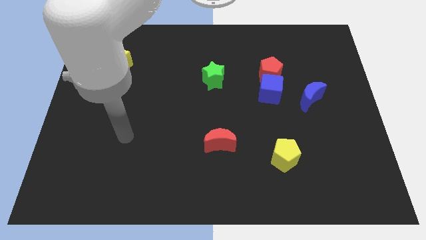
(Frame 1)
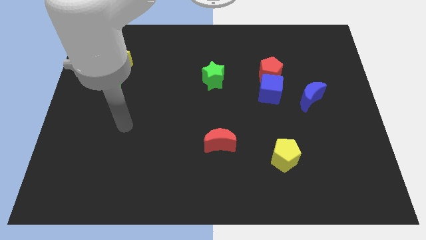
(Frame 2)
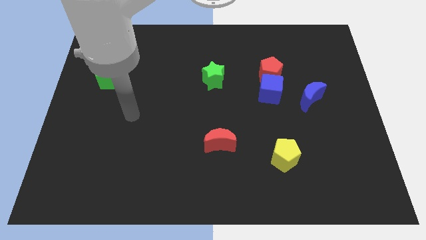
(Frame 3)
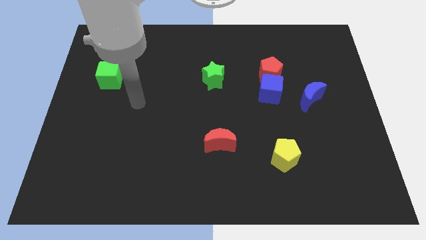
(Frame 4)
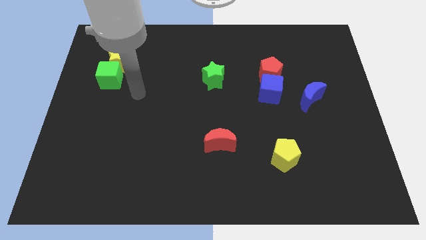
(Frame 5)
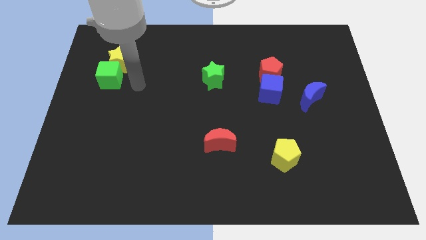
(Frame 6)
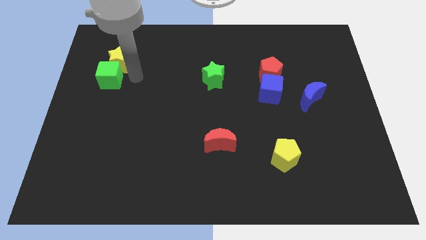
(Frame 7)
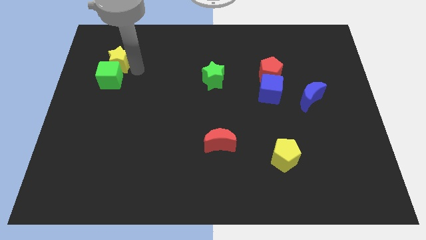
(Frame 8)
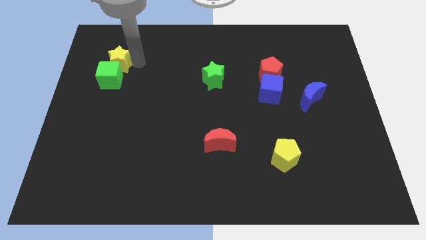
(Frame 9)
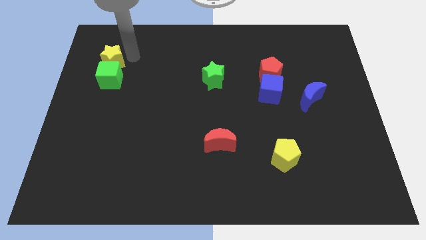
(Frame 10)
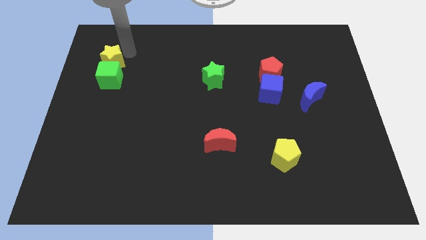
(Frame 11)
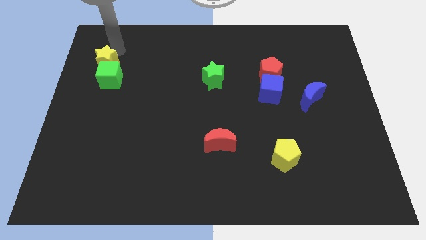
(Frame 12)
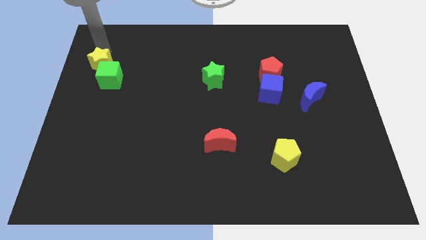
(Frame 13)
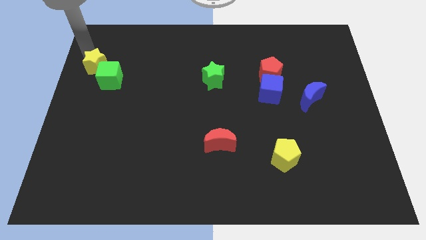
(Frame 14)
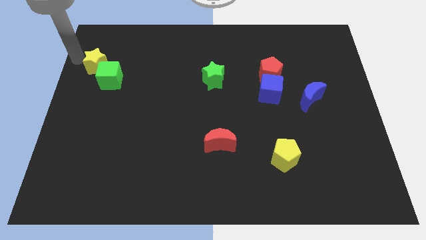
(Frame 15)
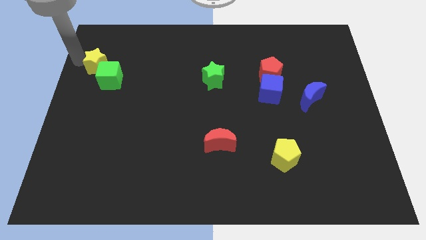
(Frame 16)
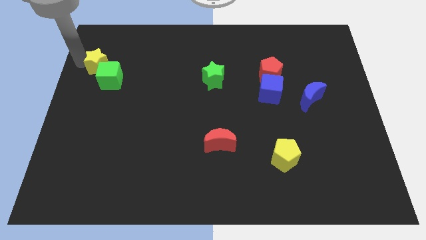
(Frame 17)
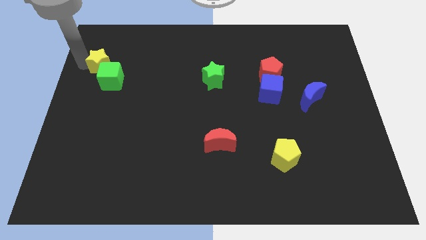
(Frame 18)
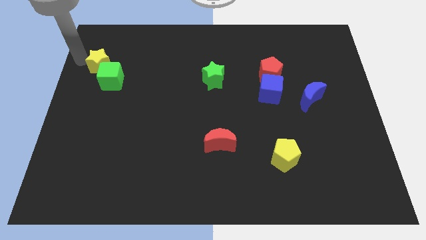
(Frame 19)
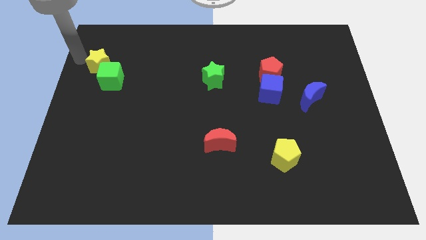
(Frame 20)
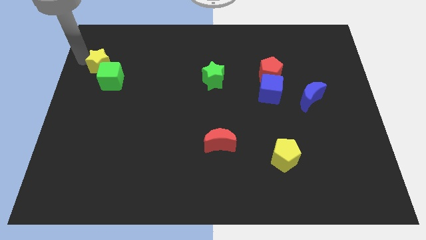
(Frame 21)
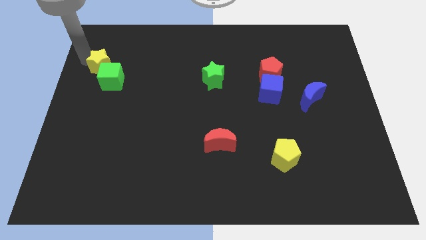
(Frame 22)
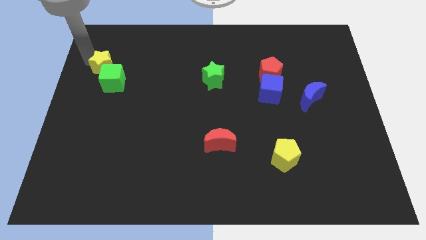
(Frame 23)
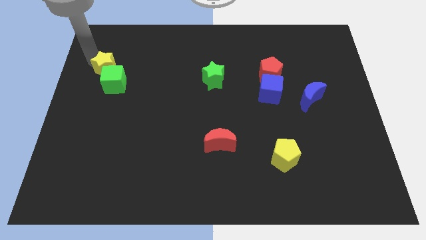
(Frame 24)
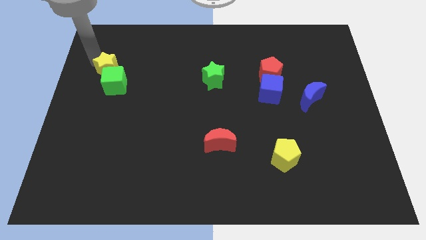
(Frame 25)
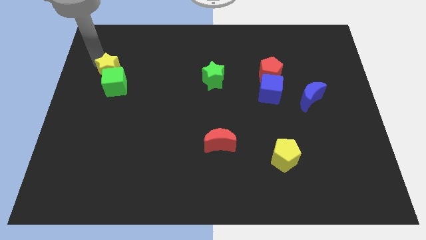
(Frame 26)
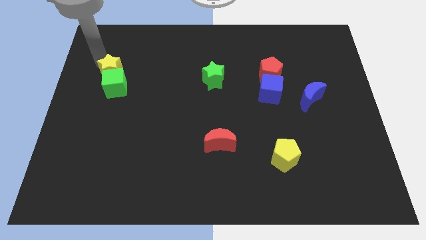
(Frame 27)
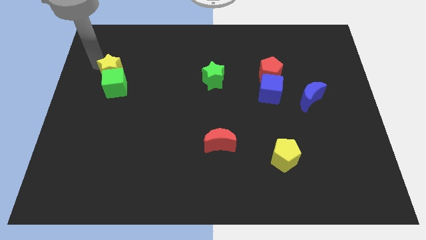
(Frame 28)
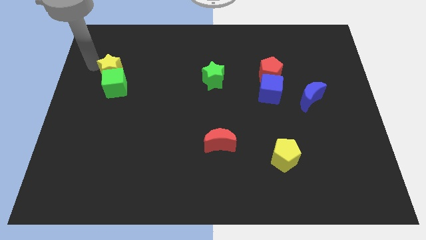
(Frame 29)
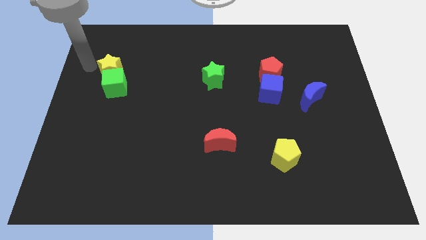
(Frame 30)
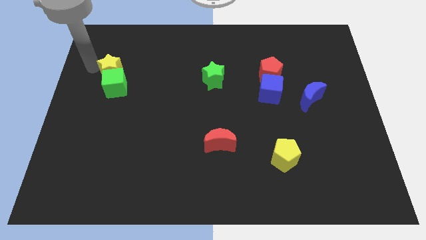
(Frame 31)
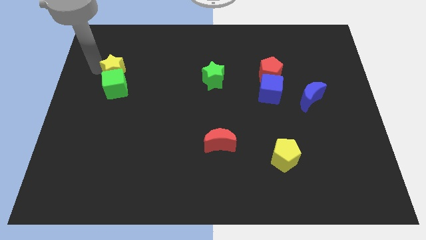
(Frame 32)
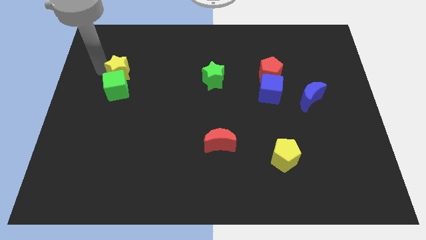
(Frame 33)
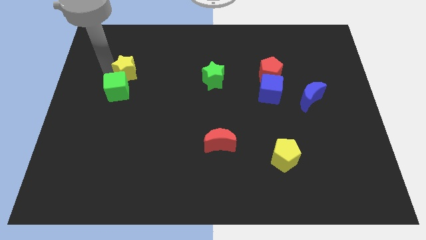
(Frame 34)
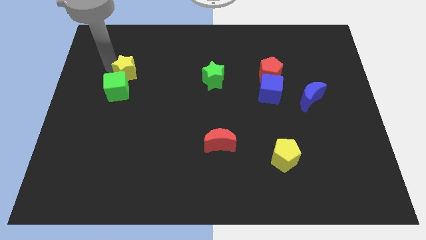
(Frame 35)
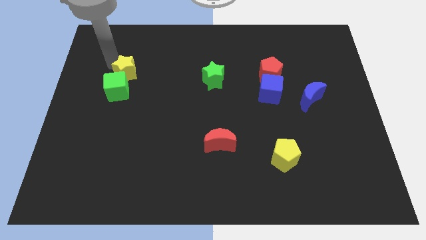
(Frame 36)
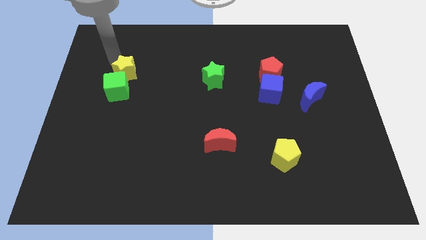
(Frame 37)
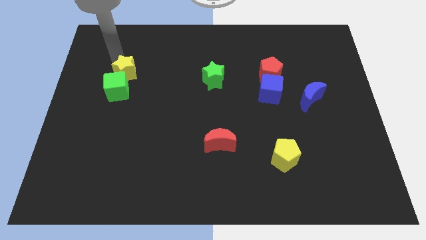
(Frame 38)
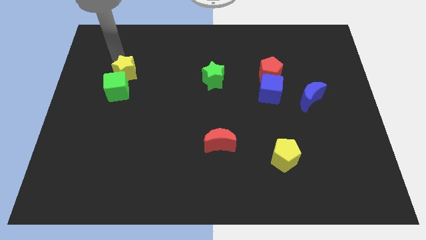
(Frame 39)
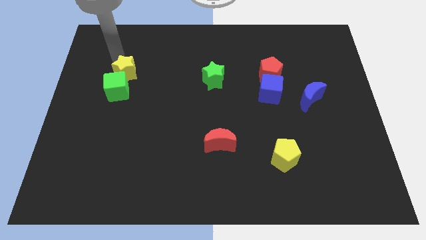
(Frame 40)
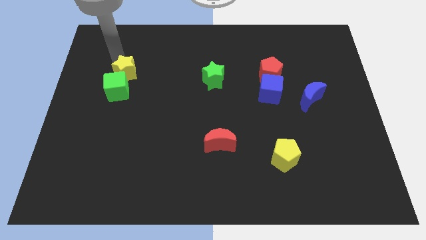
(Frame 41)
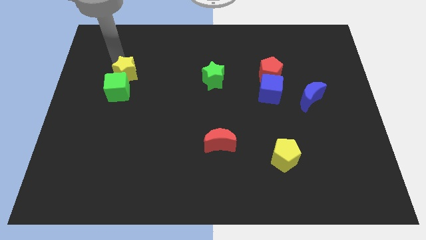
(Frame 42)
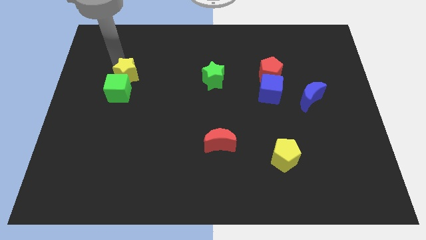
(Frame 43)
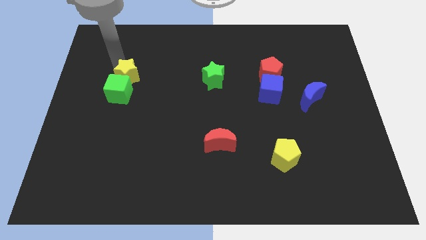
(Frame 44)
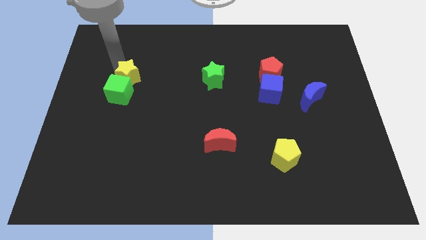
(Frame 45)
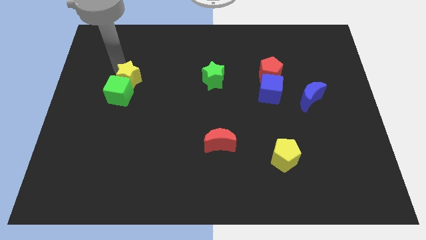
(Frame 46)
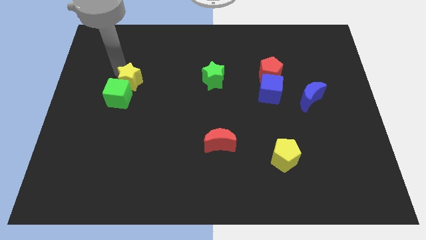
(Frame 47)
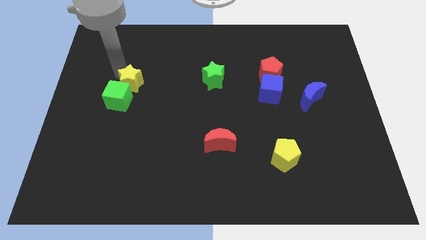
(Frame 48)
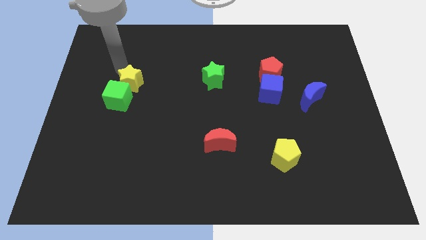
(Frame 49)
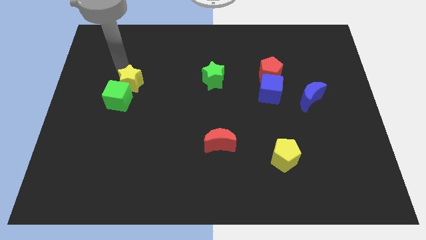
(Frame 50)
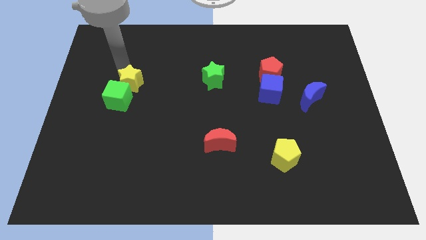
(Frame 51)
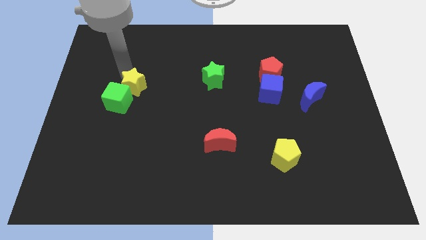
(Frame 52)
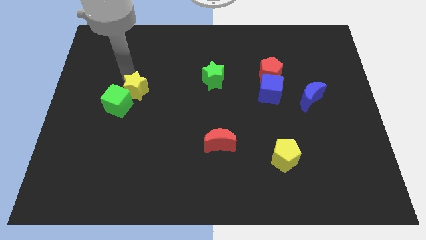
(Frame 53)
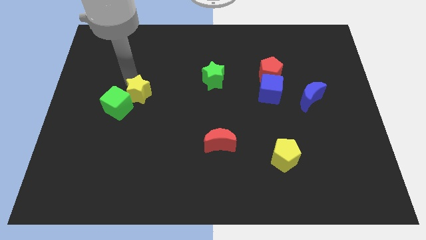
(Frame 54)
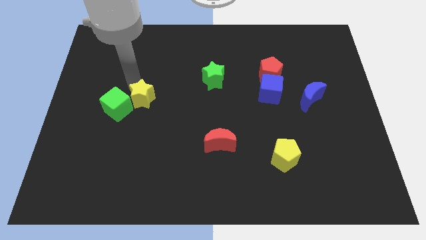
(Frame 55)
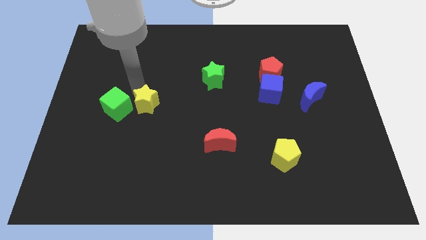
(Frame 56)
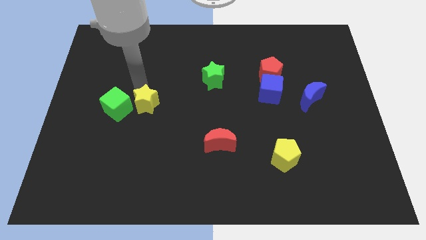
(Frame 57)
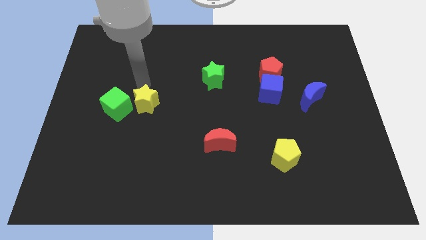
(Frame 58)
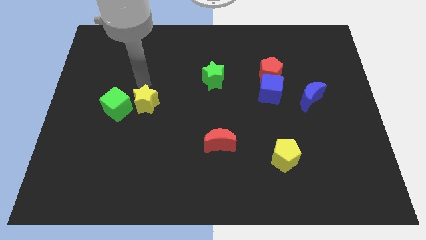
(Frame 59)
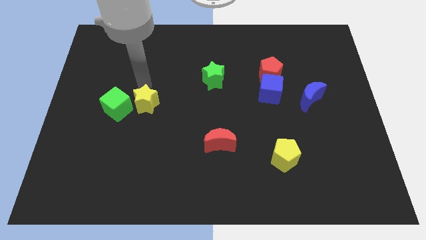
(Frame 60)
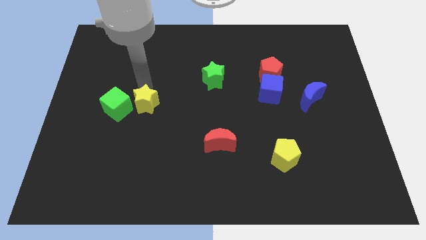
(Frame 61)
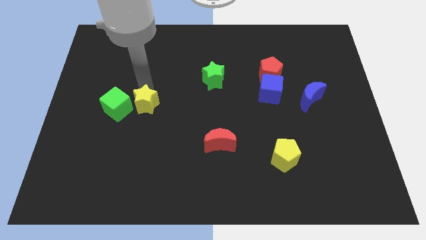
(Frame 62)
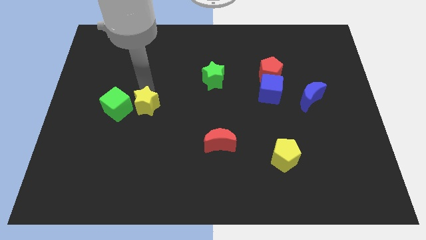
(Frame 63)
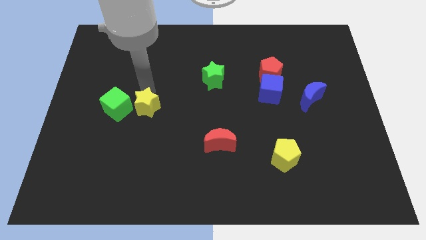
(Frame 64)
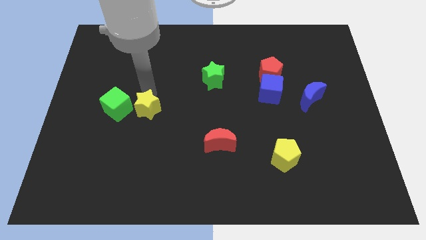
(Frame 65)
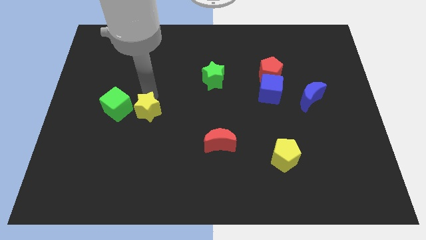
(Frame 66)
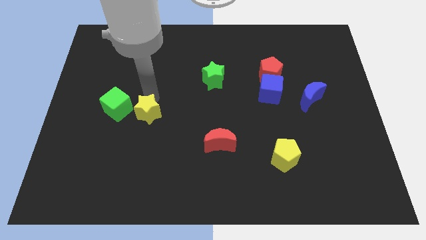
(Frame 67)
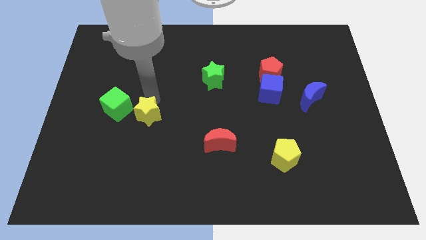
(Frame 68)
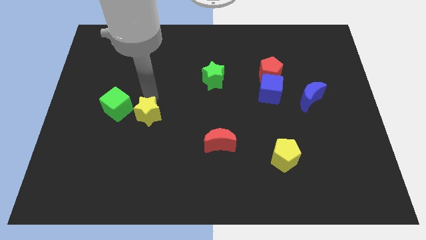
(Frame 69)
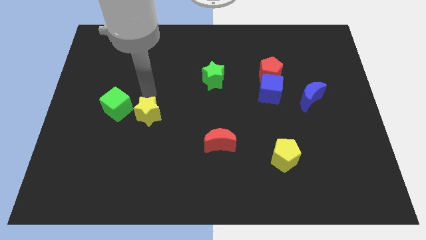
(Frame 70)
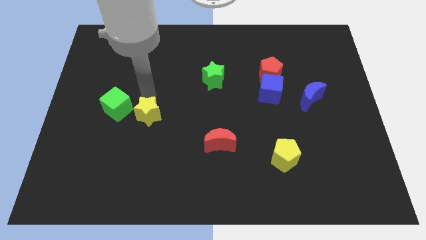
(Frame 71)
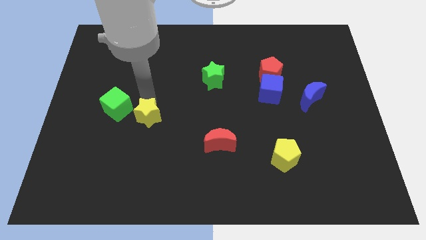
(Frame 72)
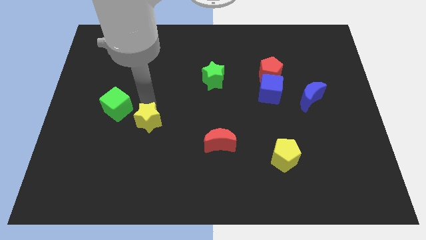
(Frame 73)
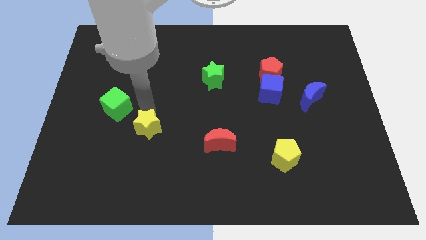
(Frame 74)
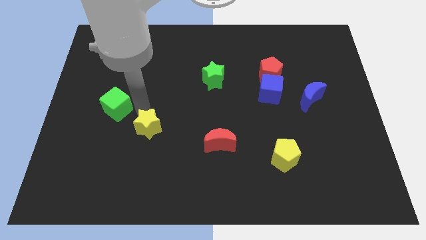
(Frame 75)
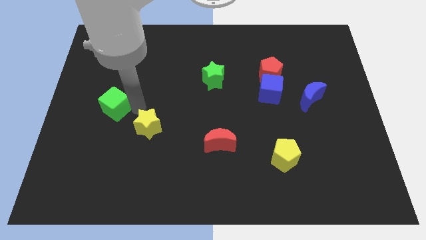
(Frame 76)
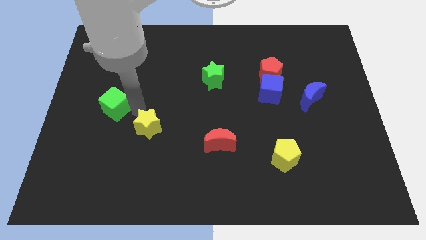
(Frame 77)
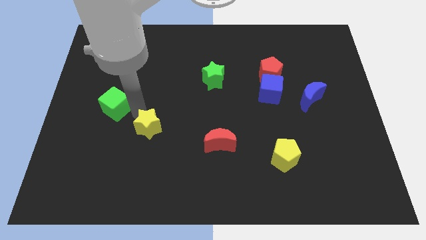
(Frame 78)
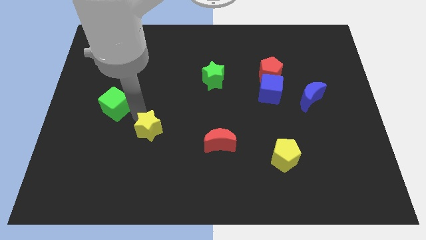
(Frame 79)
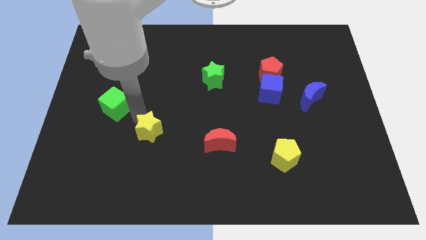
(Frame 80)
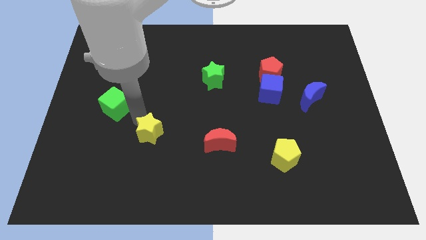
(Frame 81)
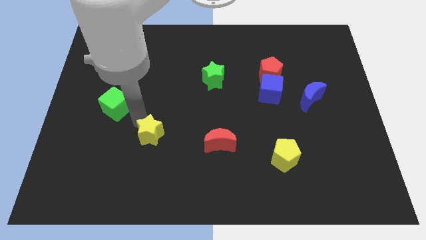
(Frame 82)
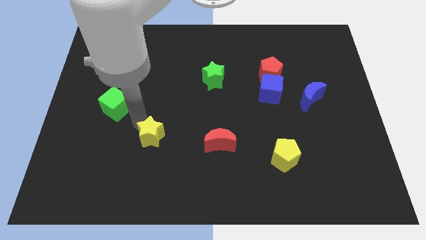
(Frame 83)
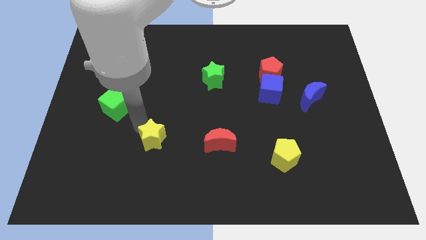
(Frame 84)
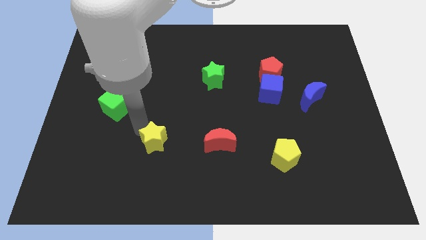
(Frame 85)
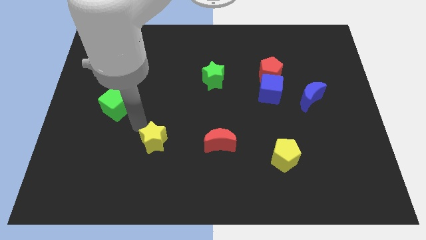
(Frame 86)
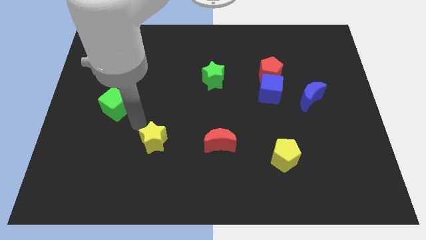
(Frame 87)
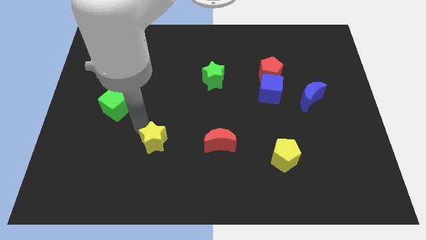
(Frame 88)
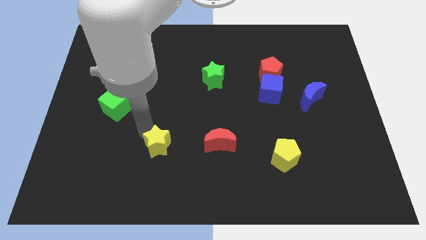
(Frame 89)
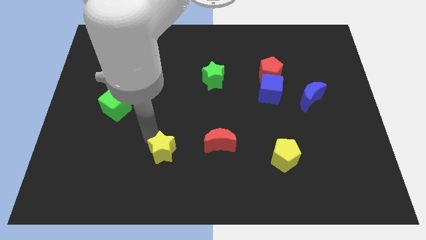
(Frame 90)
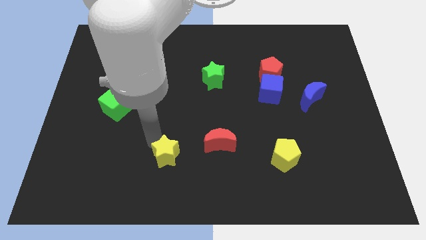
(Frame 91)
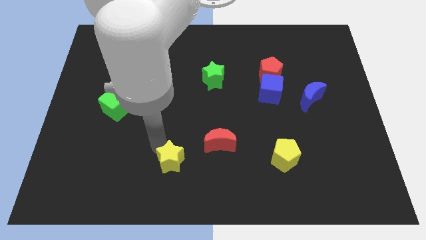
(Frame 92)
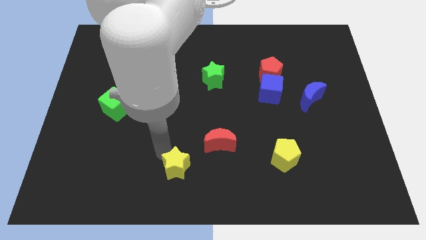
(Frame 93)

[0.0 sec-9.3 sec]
move the yellow star to the bottom
